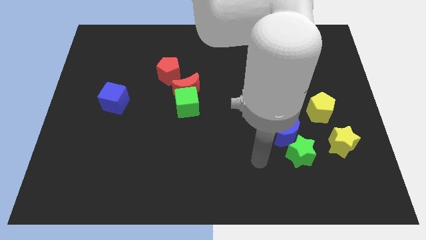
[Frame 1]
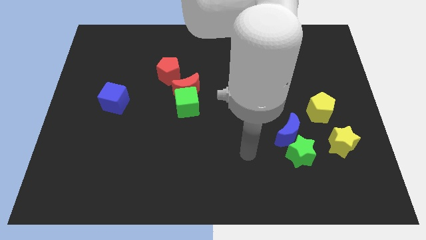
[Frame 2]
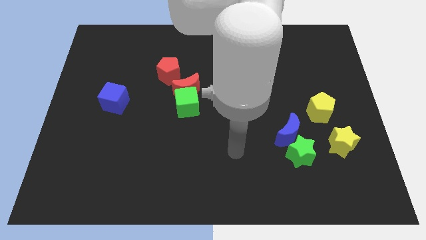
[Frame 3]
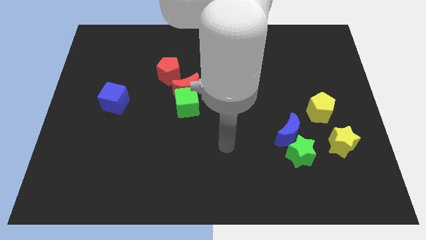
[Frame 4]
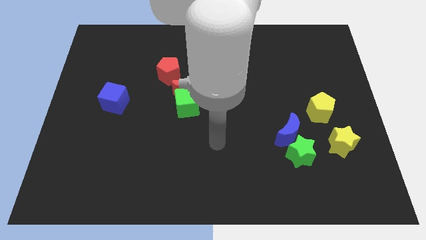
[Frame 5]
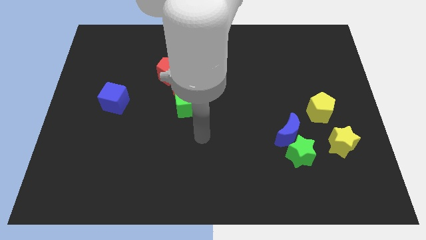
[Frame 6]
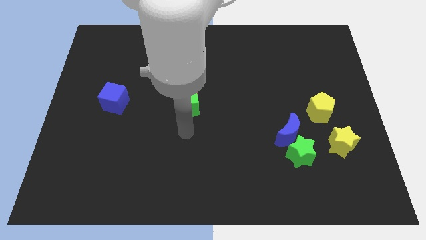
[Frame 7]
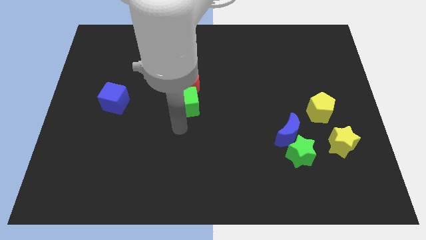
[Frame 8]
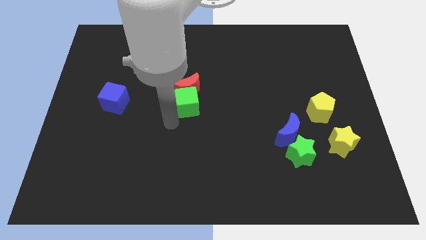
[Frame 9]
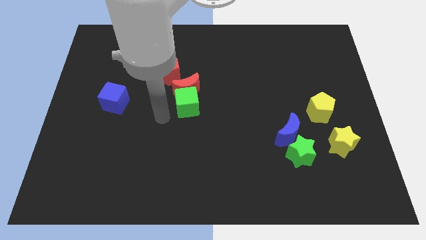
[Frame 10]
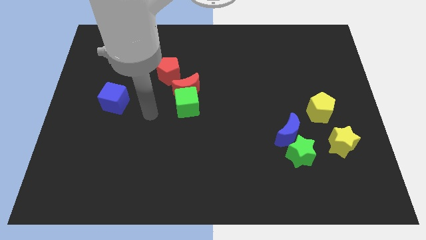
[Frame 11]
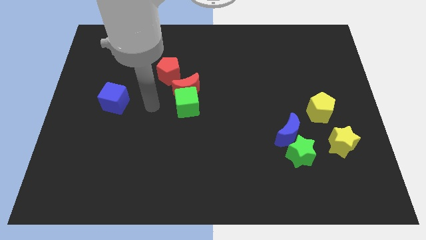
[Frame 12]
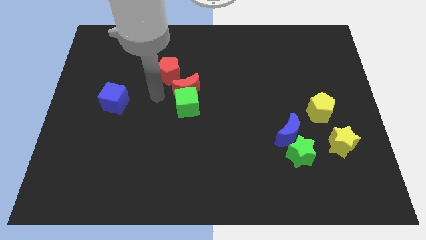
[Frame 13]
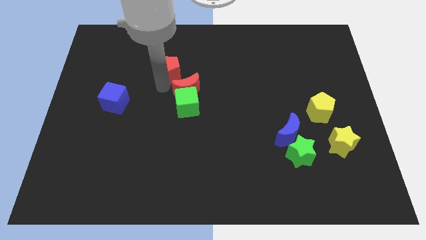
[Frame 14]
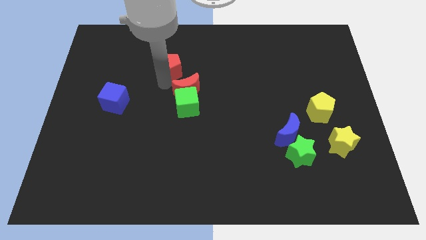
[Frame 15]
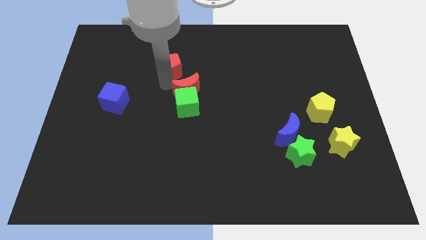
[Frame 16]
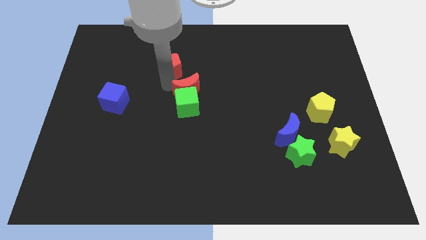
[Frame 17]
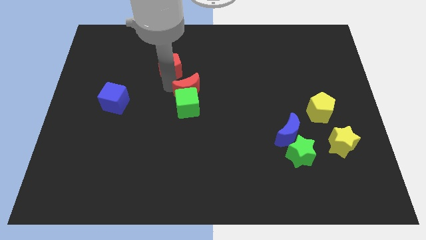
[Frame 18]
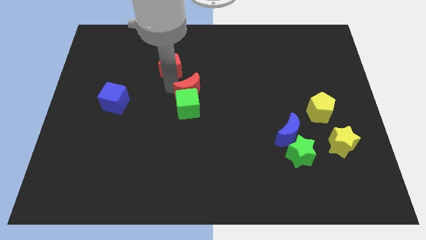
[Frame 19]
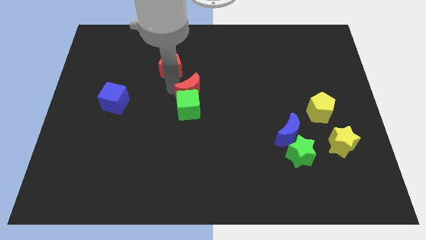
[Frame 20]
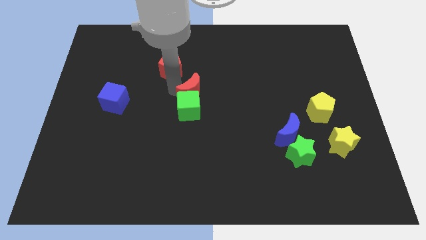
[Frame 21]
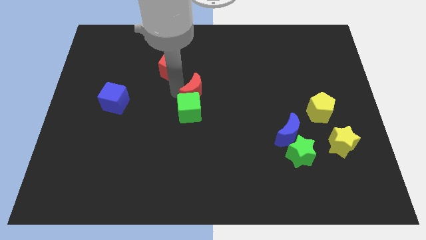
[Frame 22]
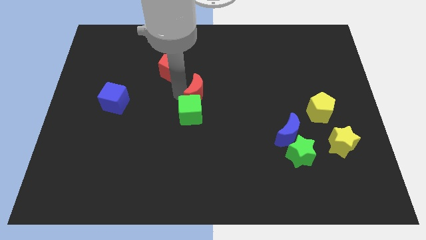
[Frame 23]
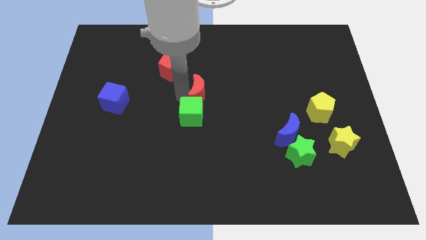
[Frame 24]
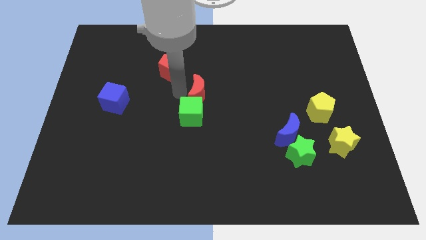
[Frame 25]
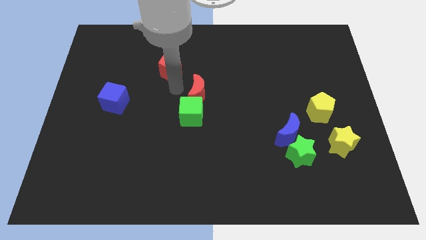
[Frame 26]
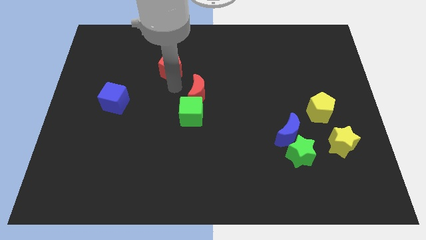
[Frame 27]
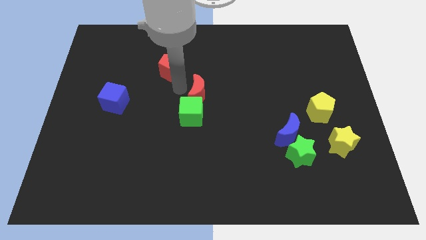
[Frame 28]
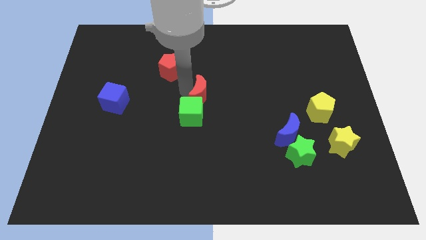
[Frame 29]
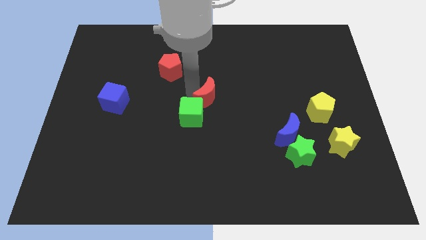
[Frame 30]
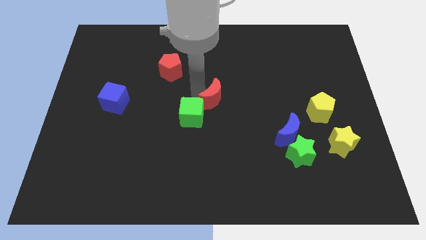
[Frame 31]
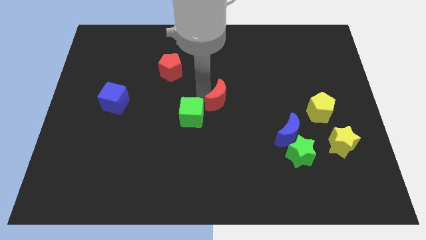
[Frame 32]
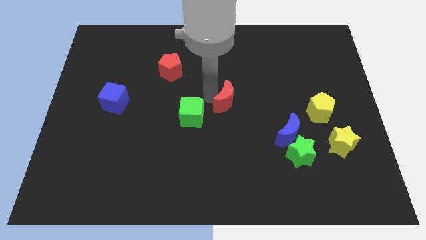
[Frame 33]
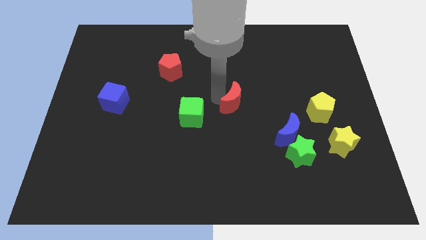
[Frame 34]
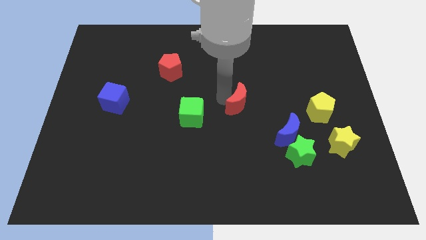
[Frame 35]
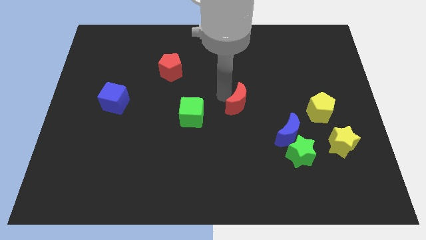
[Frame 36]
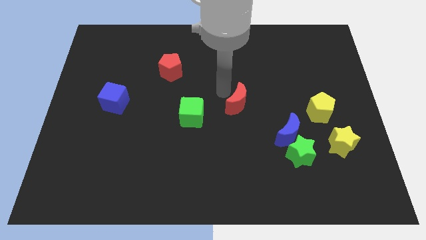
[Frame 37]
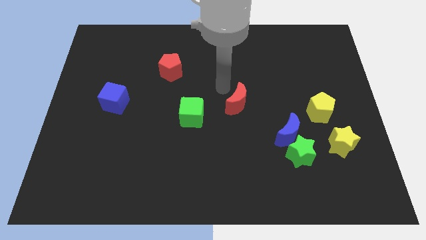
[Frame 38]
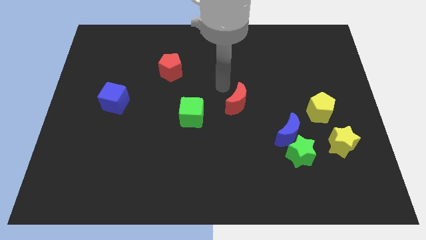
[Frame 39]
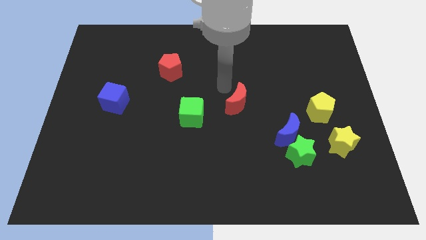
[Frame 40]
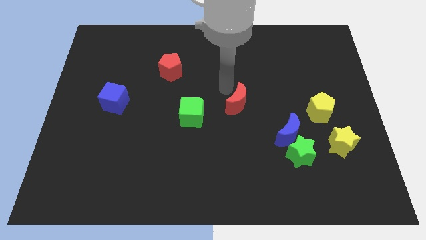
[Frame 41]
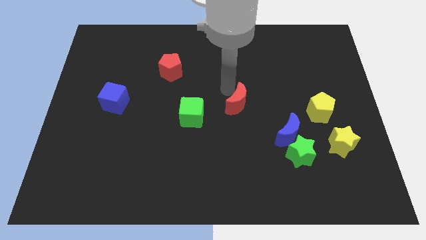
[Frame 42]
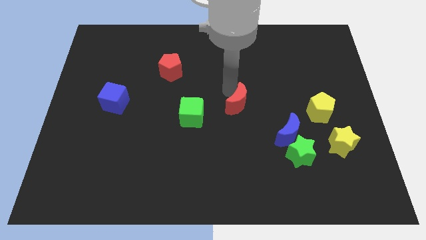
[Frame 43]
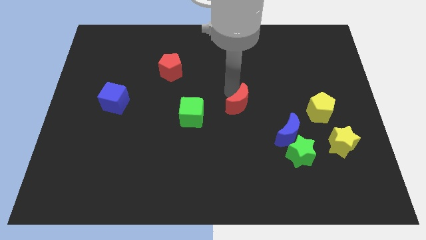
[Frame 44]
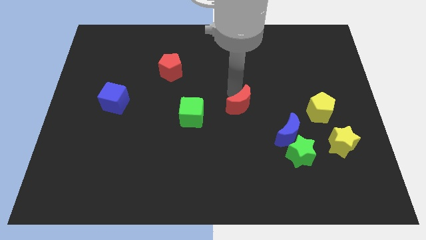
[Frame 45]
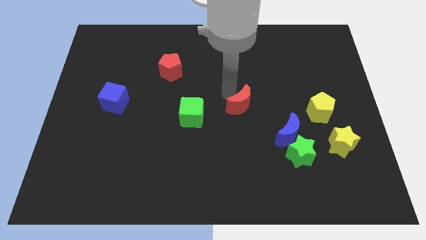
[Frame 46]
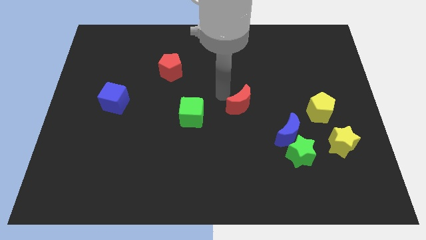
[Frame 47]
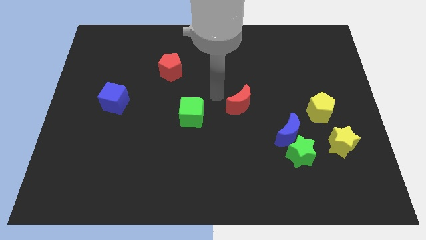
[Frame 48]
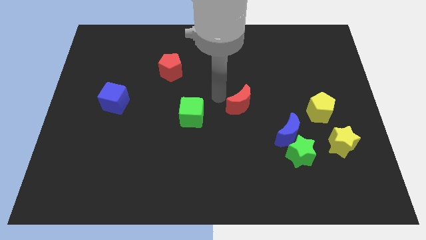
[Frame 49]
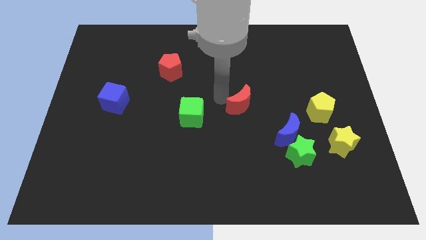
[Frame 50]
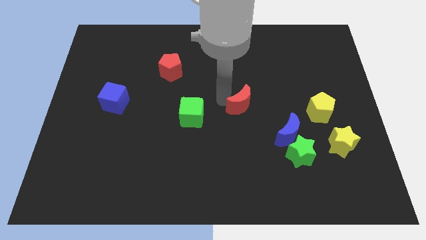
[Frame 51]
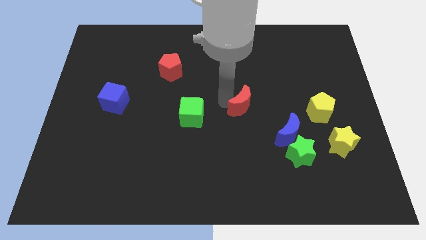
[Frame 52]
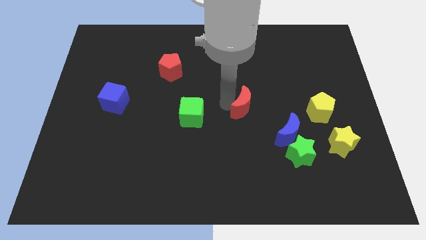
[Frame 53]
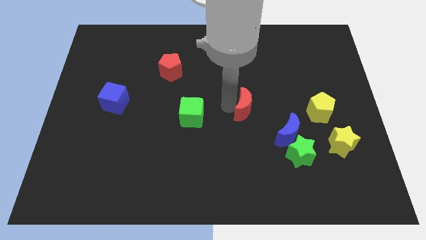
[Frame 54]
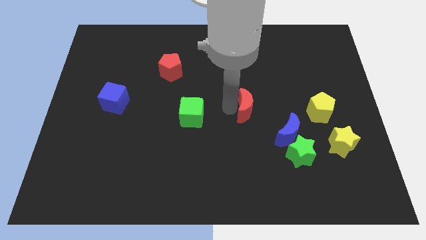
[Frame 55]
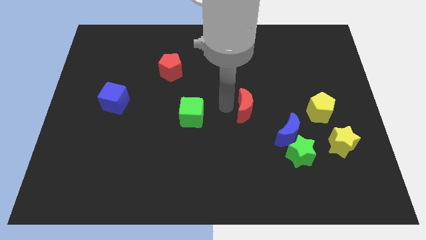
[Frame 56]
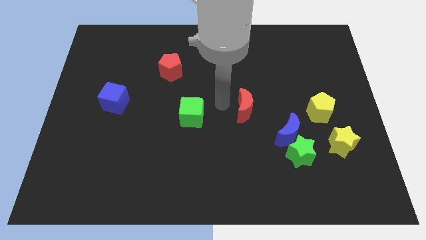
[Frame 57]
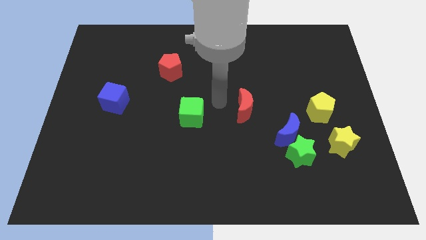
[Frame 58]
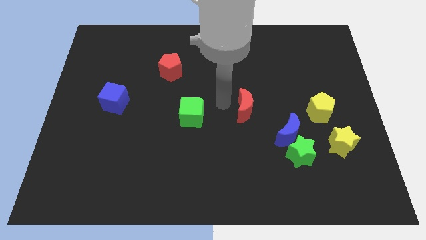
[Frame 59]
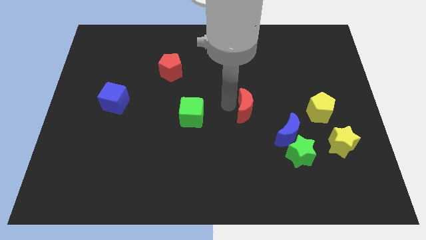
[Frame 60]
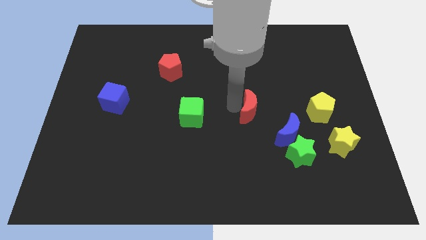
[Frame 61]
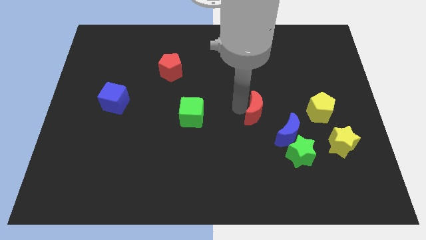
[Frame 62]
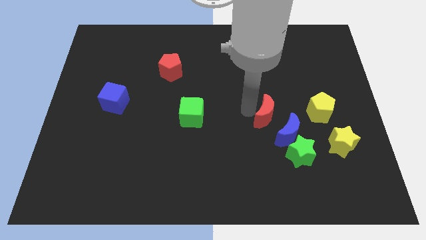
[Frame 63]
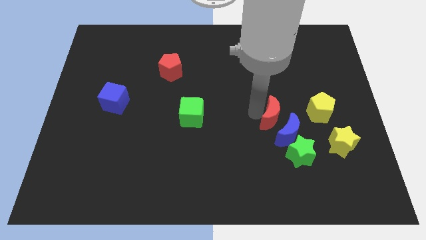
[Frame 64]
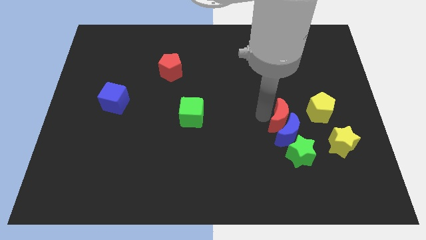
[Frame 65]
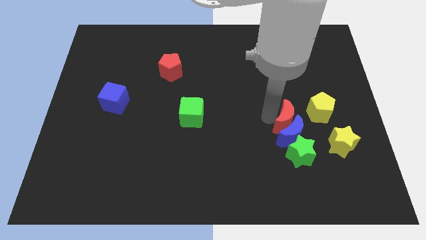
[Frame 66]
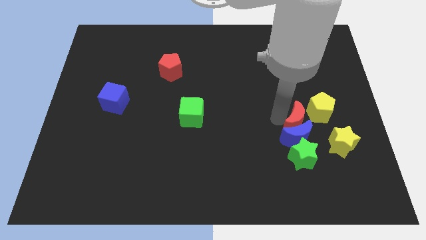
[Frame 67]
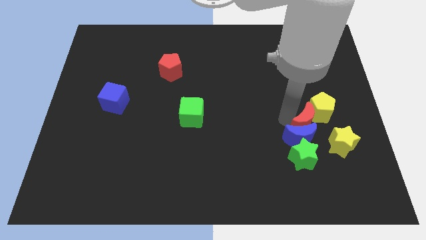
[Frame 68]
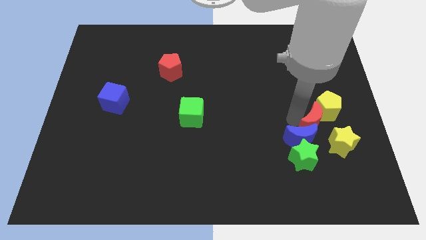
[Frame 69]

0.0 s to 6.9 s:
move the red moon to the top right side of the green star

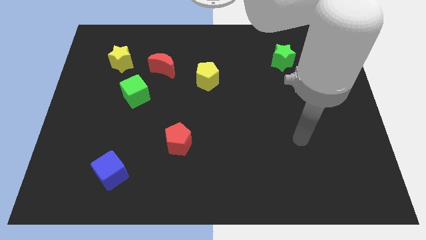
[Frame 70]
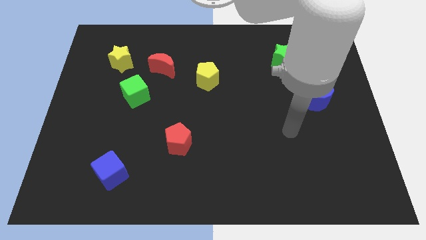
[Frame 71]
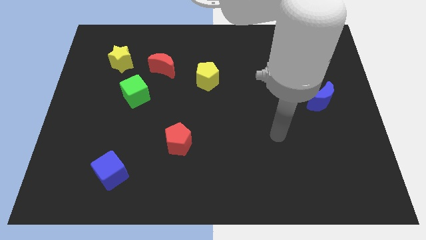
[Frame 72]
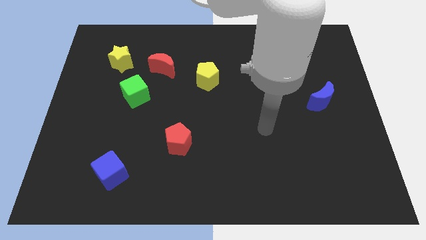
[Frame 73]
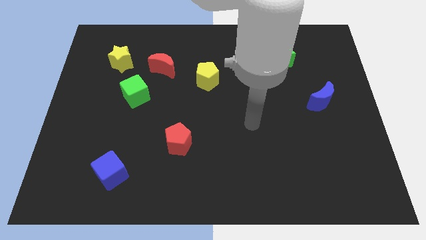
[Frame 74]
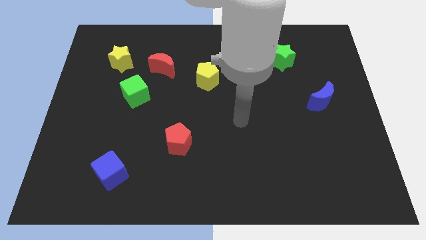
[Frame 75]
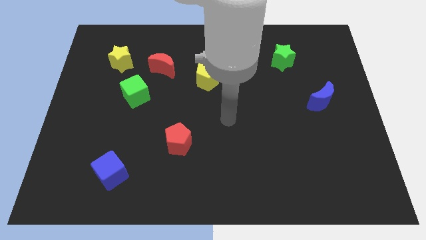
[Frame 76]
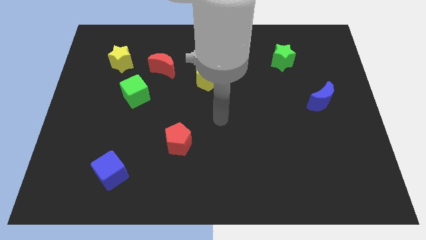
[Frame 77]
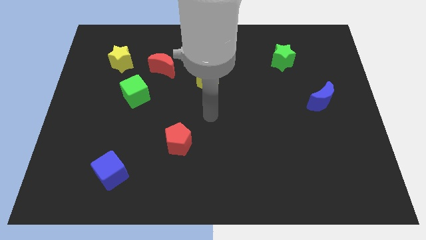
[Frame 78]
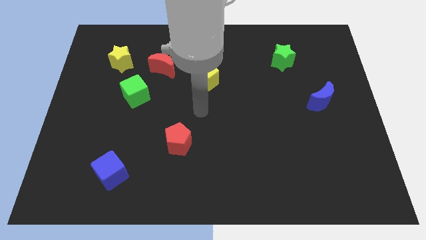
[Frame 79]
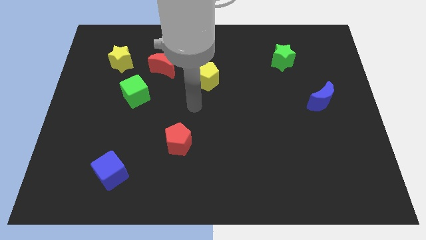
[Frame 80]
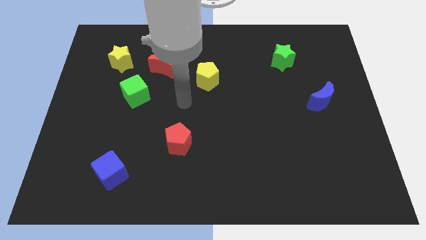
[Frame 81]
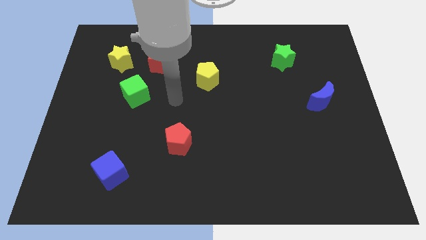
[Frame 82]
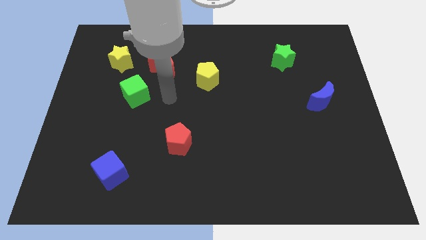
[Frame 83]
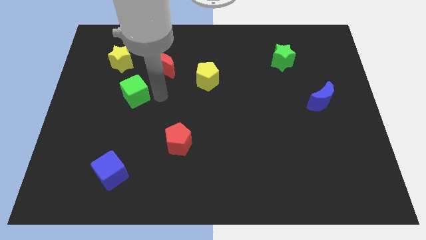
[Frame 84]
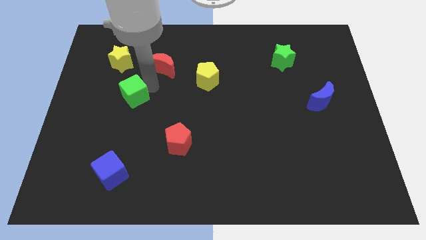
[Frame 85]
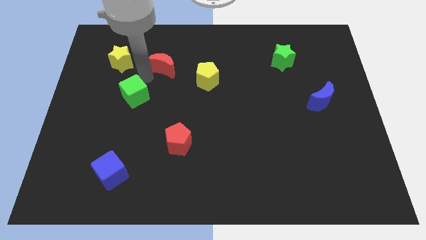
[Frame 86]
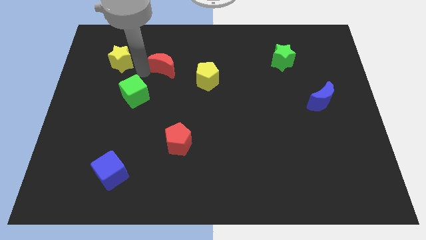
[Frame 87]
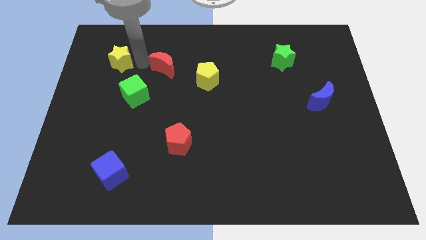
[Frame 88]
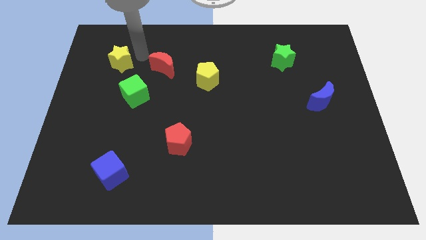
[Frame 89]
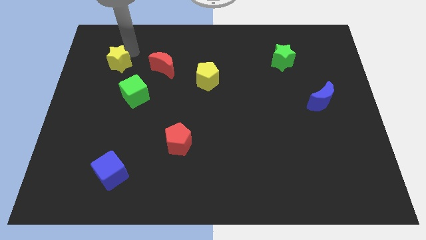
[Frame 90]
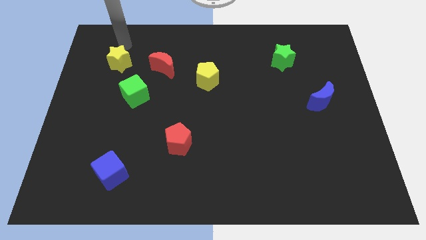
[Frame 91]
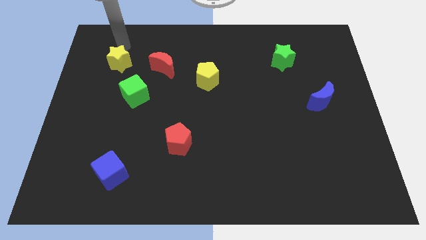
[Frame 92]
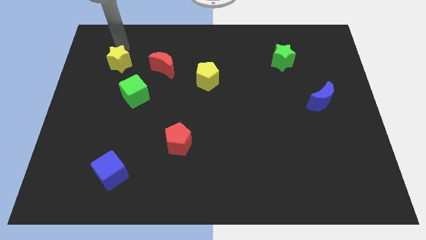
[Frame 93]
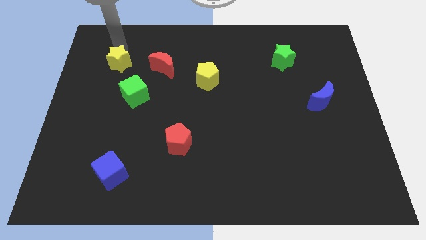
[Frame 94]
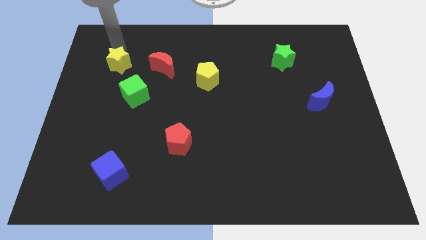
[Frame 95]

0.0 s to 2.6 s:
slide the yellow star diagonally up and to the left of the green cube
